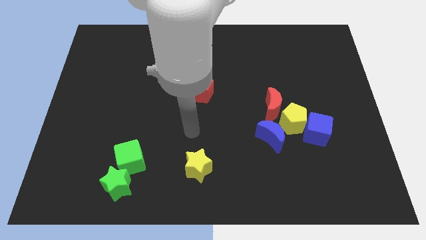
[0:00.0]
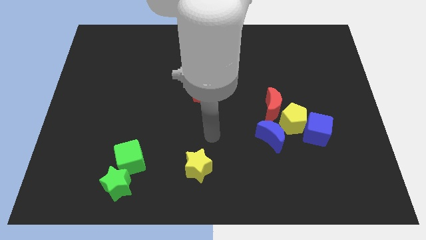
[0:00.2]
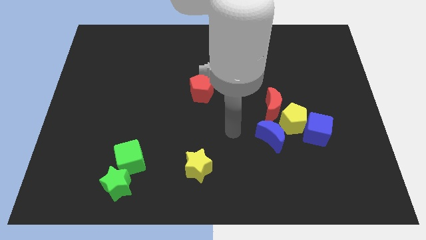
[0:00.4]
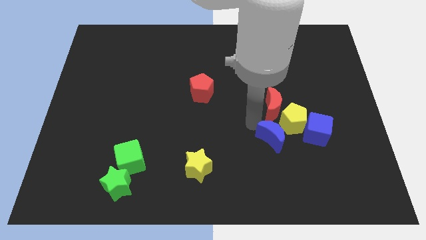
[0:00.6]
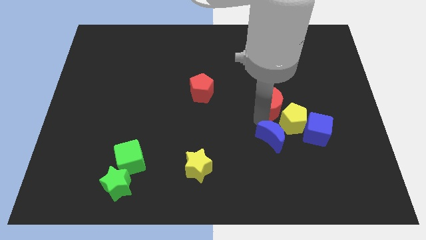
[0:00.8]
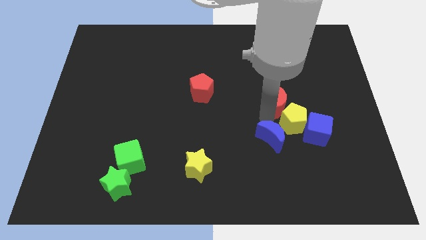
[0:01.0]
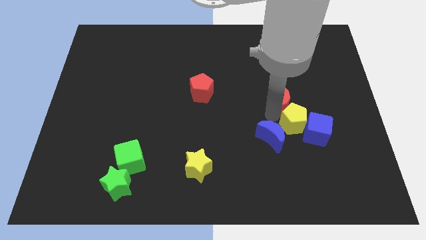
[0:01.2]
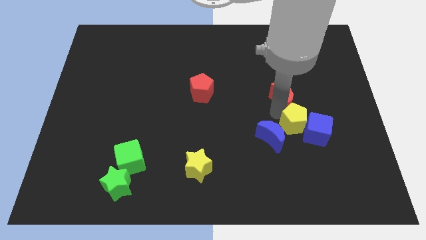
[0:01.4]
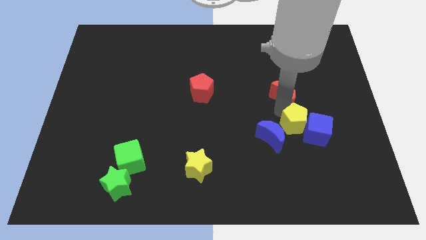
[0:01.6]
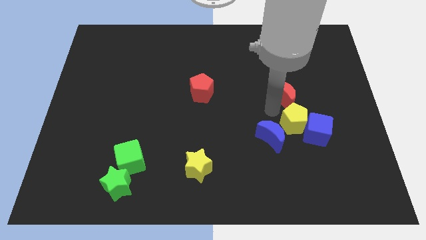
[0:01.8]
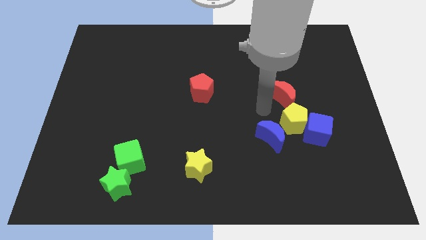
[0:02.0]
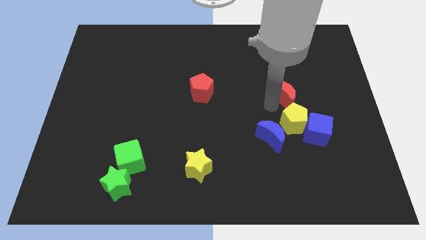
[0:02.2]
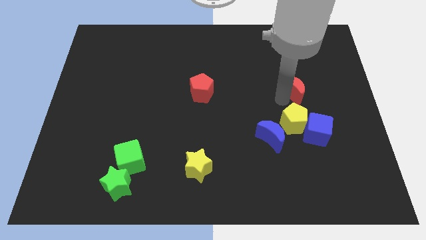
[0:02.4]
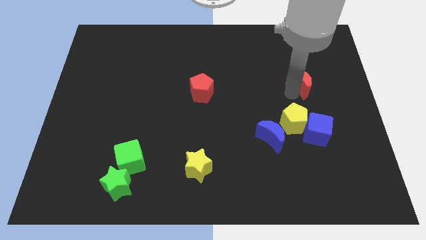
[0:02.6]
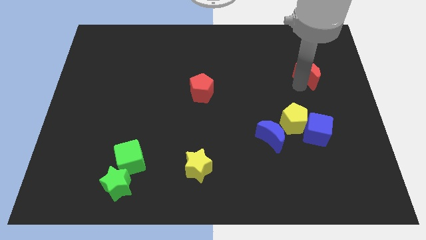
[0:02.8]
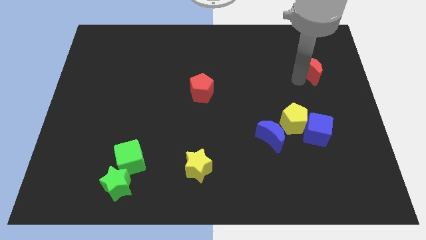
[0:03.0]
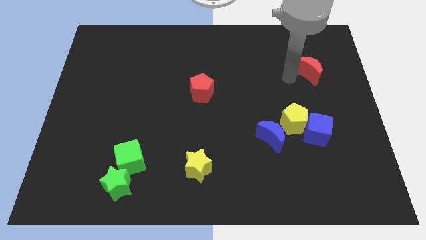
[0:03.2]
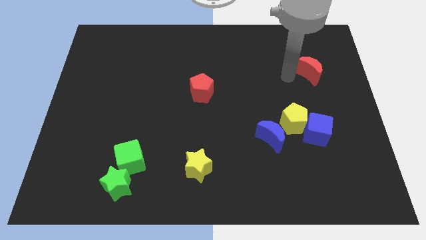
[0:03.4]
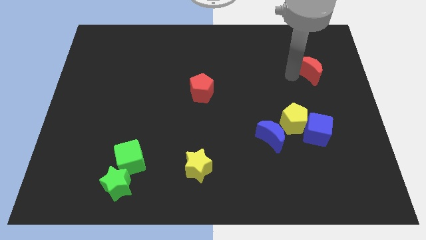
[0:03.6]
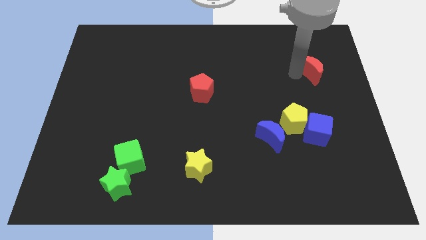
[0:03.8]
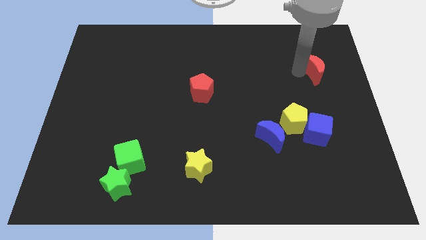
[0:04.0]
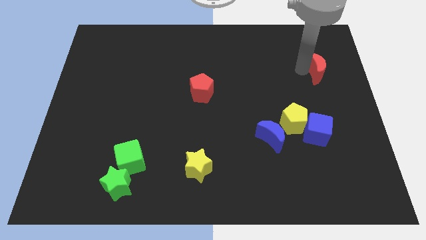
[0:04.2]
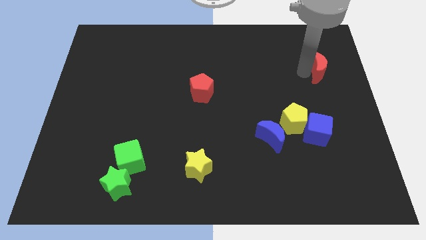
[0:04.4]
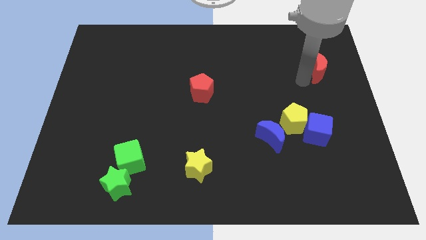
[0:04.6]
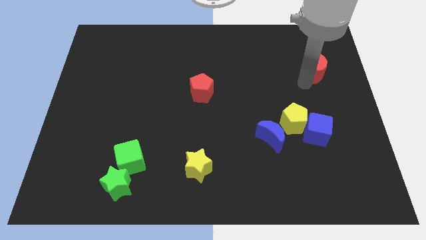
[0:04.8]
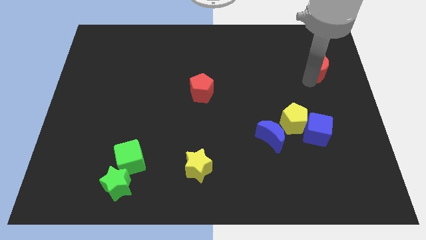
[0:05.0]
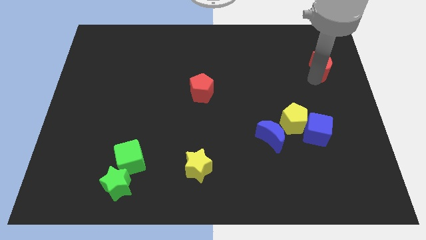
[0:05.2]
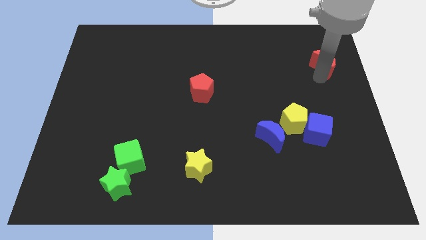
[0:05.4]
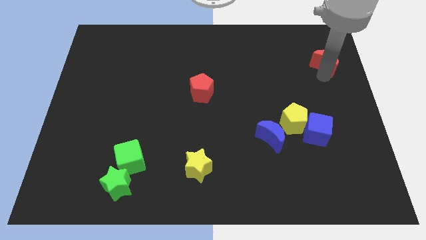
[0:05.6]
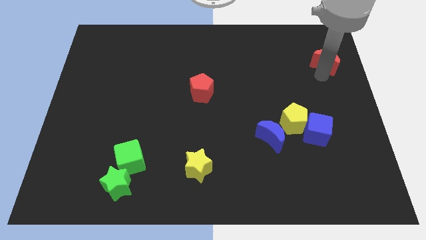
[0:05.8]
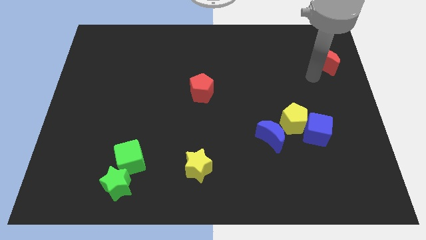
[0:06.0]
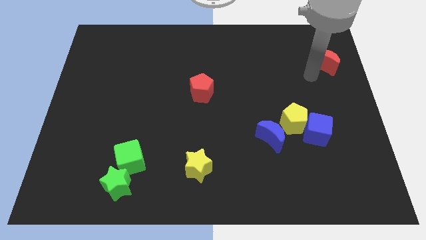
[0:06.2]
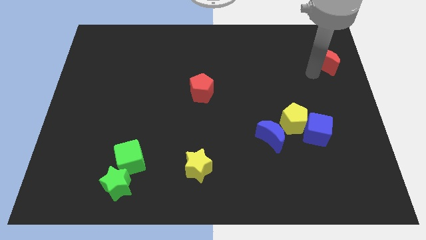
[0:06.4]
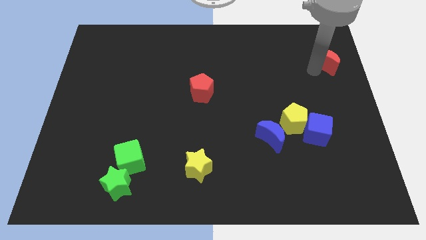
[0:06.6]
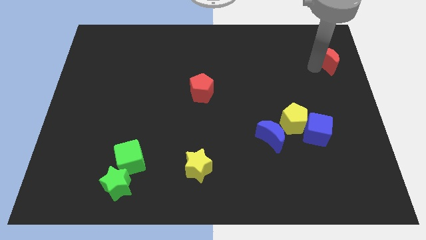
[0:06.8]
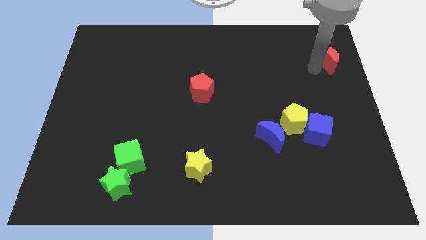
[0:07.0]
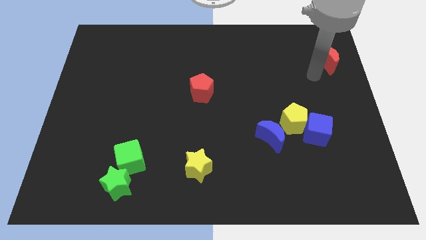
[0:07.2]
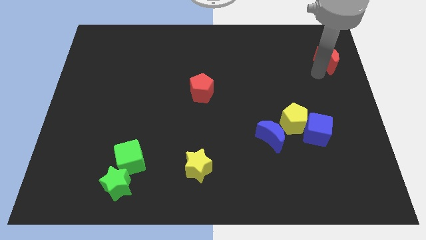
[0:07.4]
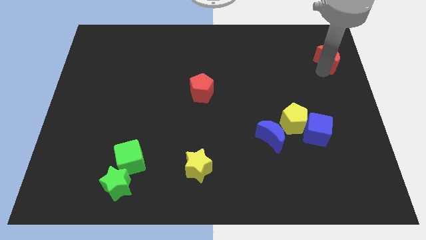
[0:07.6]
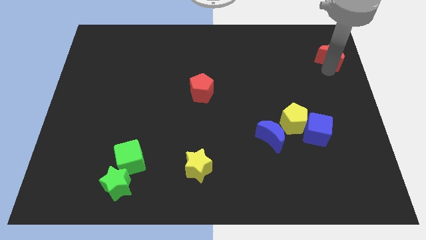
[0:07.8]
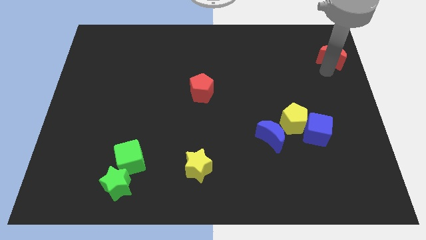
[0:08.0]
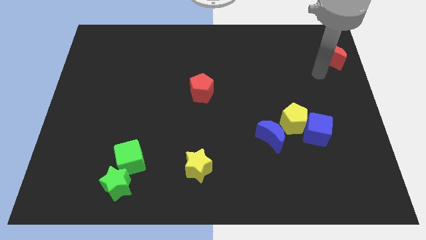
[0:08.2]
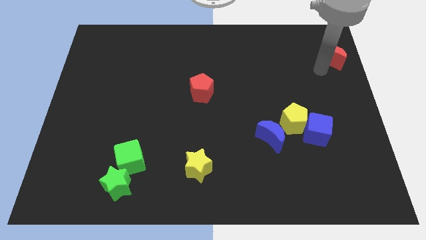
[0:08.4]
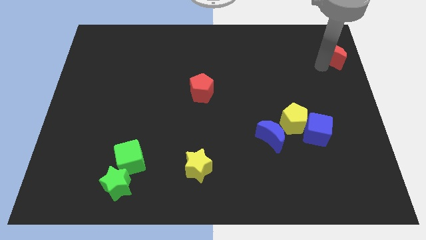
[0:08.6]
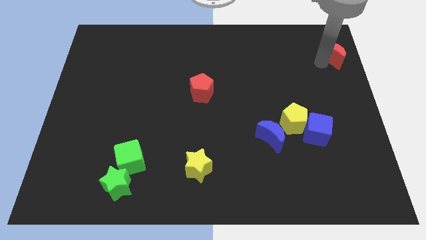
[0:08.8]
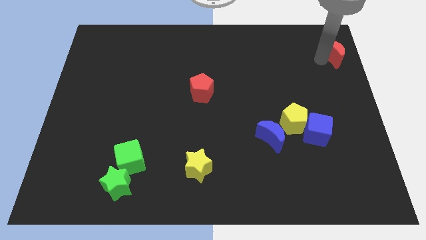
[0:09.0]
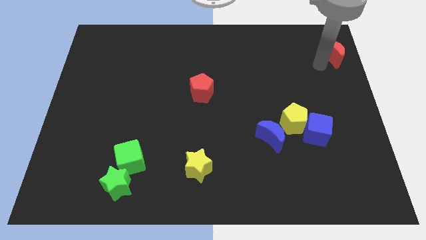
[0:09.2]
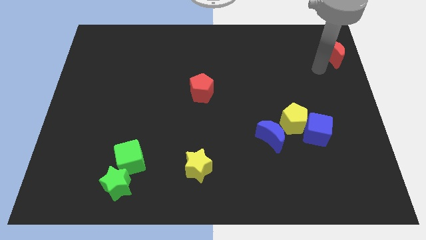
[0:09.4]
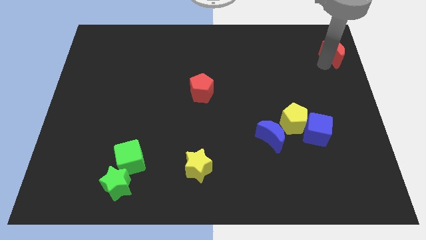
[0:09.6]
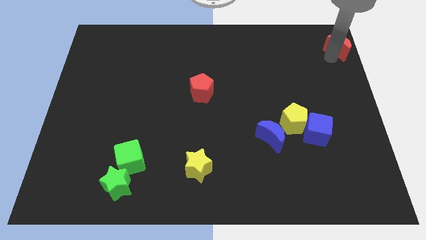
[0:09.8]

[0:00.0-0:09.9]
put the red moon to the top right corner

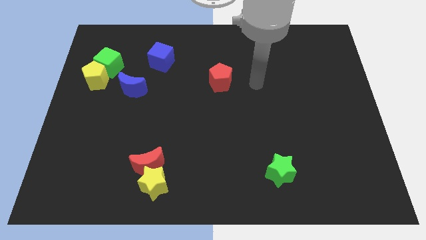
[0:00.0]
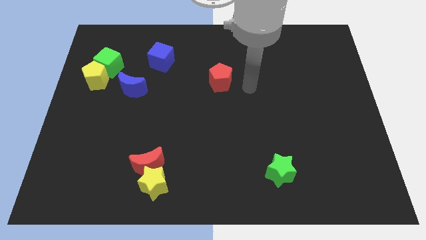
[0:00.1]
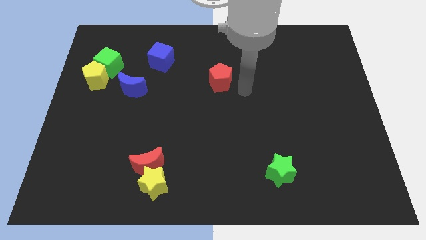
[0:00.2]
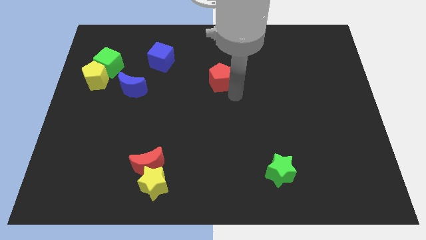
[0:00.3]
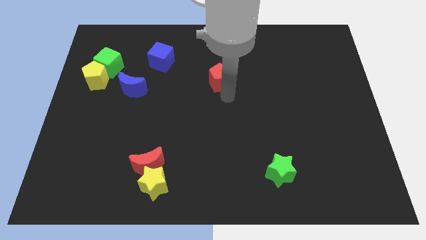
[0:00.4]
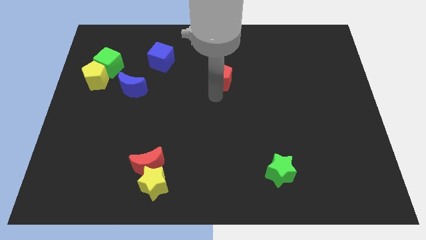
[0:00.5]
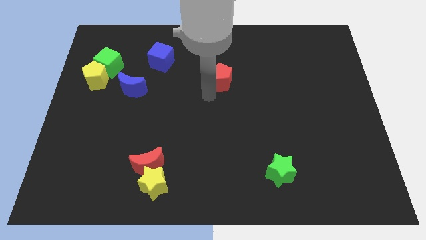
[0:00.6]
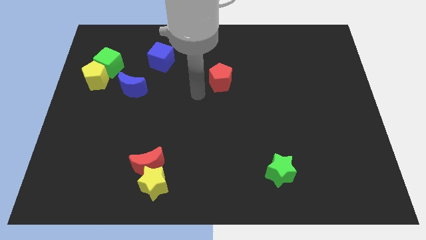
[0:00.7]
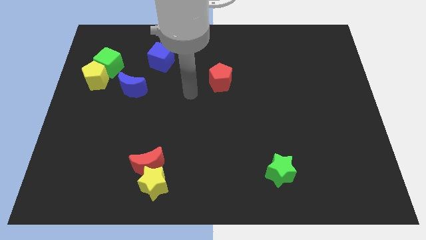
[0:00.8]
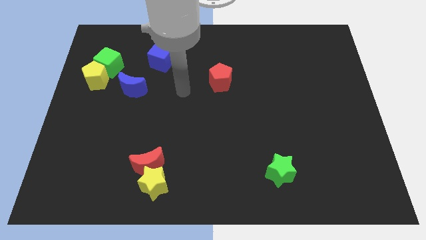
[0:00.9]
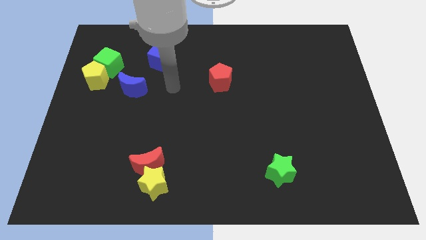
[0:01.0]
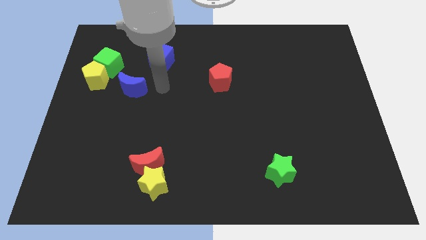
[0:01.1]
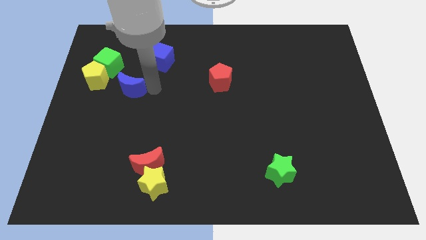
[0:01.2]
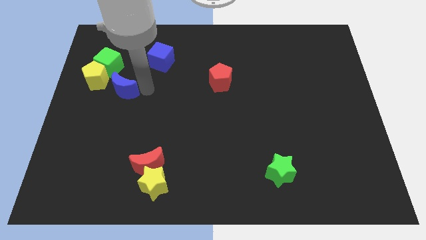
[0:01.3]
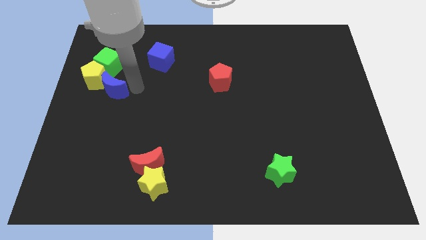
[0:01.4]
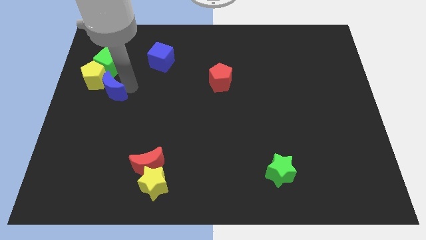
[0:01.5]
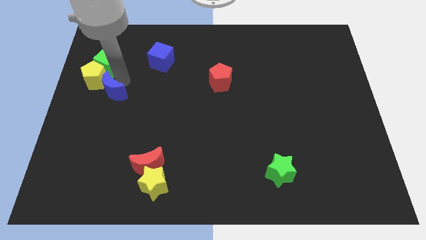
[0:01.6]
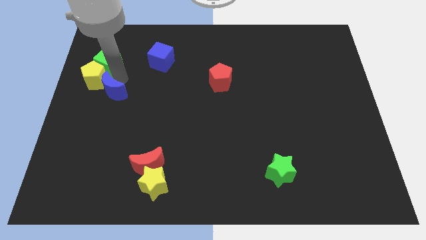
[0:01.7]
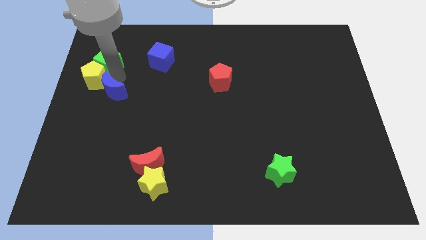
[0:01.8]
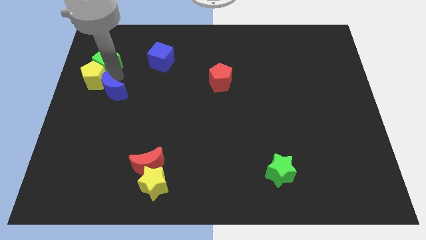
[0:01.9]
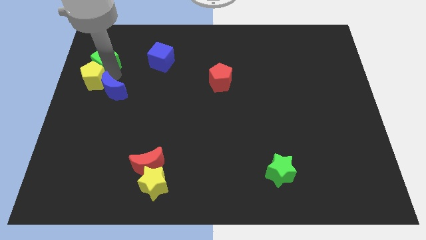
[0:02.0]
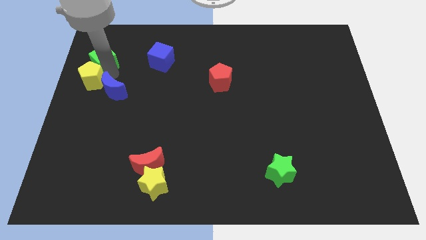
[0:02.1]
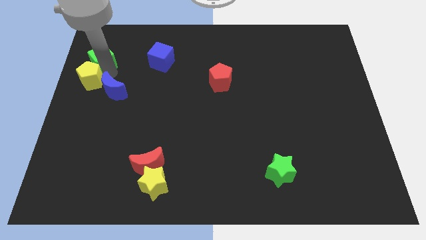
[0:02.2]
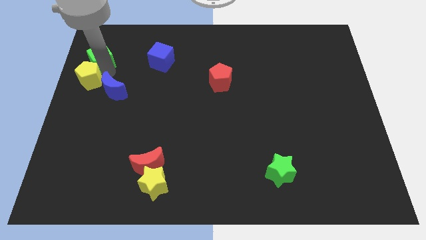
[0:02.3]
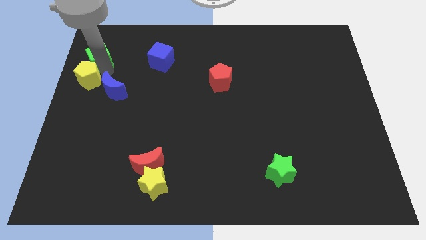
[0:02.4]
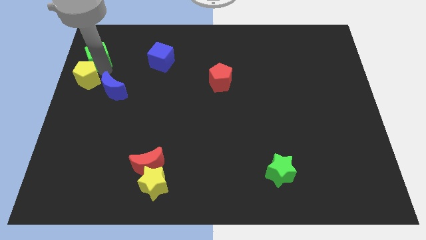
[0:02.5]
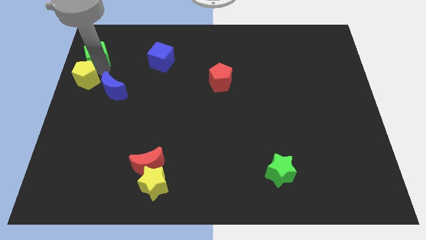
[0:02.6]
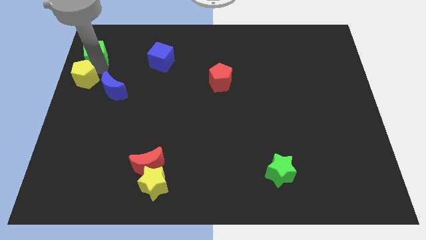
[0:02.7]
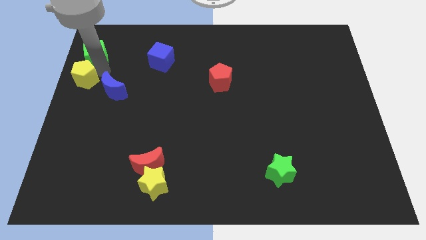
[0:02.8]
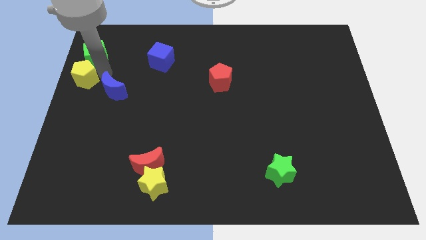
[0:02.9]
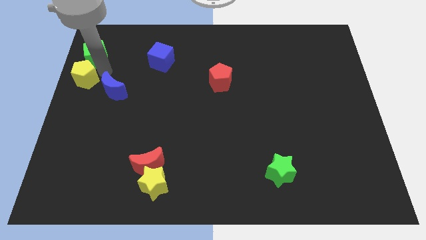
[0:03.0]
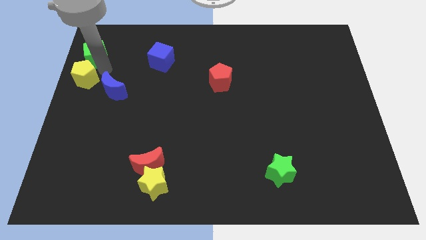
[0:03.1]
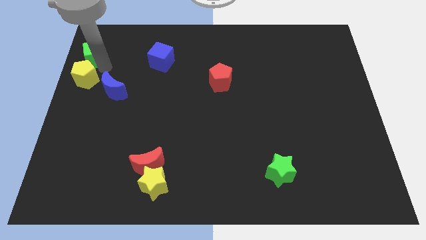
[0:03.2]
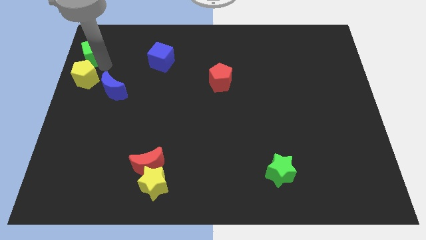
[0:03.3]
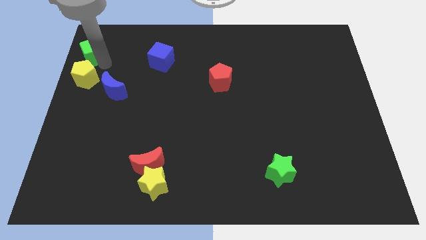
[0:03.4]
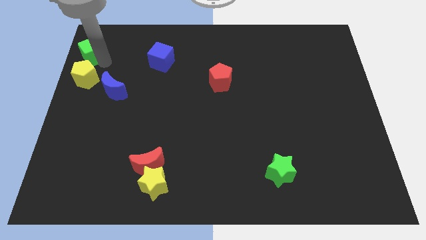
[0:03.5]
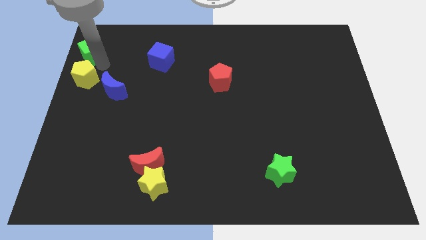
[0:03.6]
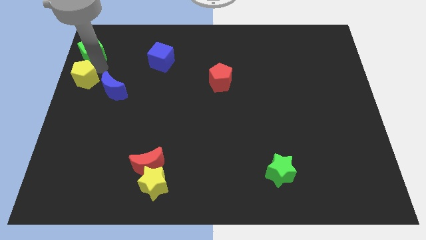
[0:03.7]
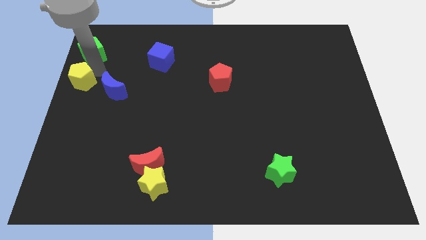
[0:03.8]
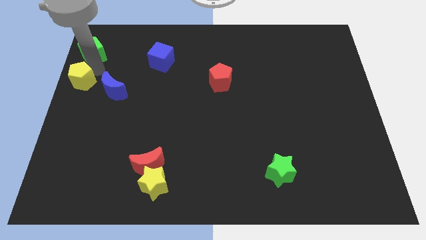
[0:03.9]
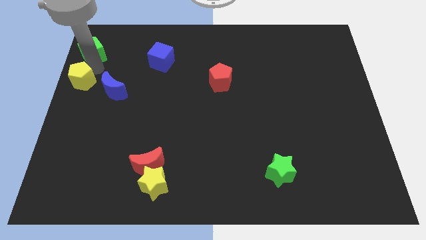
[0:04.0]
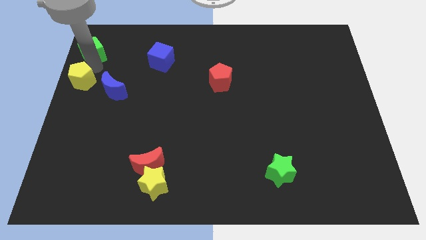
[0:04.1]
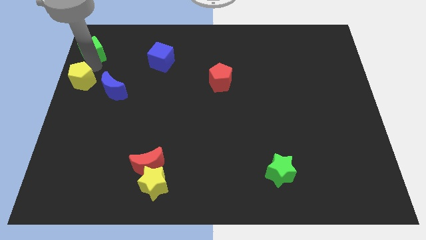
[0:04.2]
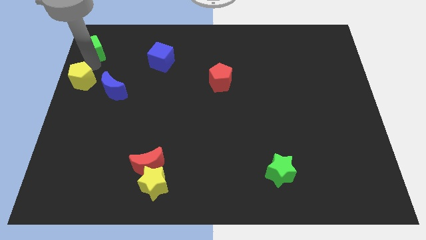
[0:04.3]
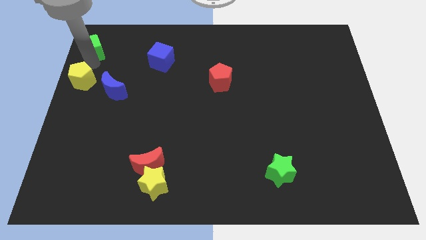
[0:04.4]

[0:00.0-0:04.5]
move the green cube to the top left corner
